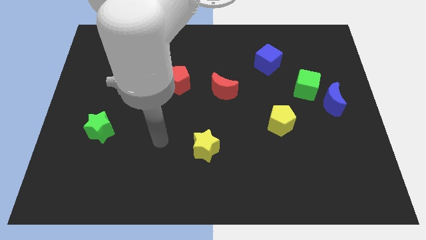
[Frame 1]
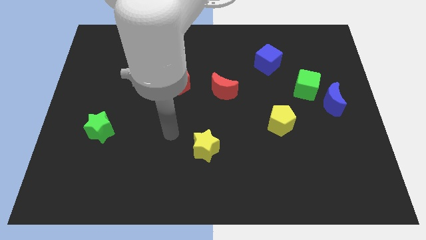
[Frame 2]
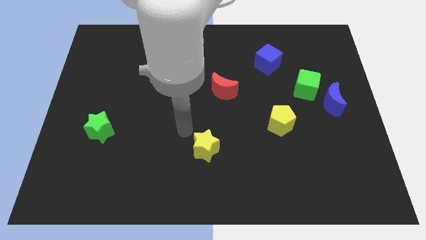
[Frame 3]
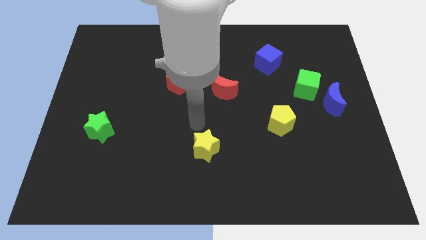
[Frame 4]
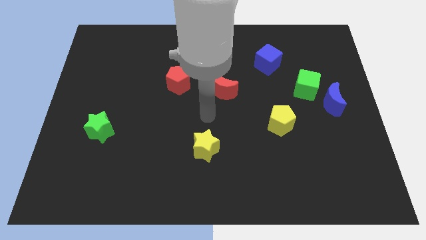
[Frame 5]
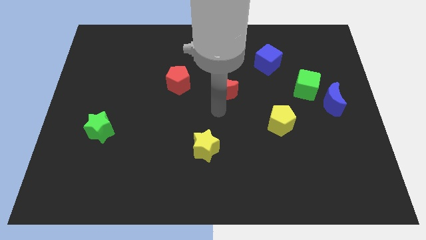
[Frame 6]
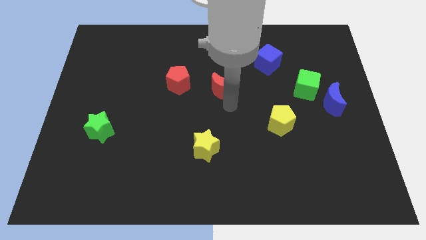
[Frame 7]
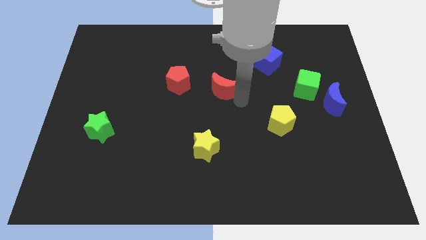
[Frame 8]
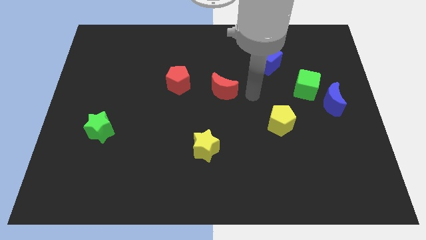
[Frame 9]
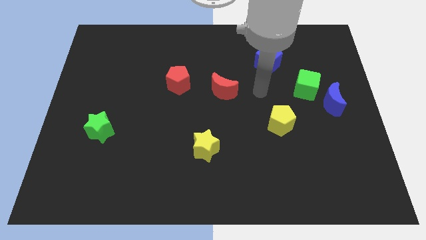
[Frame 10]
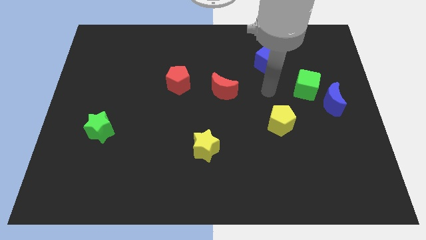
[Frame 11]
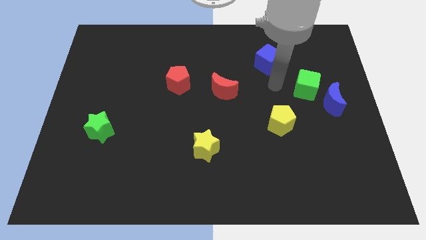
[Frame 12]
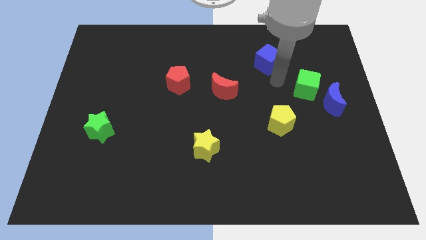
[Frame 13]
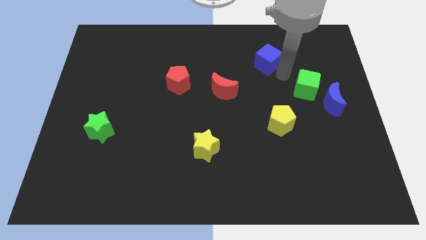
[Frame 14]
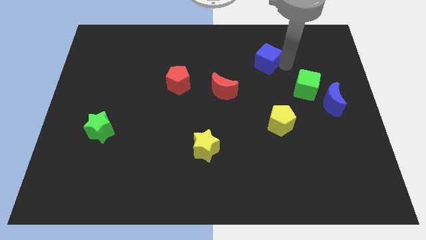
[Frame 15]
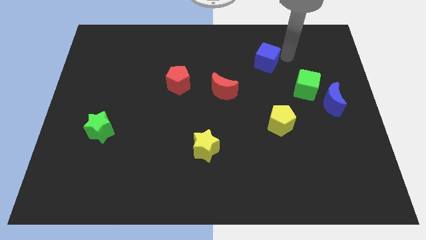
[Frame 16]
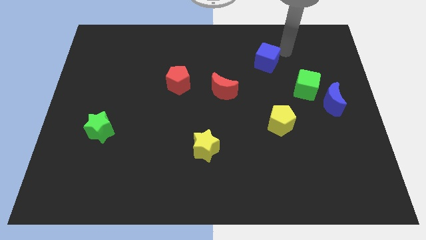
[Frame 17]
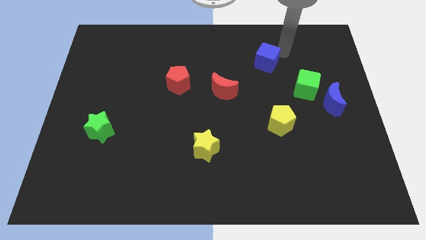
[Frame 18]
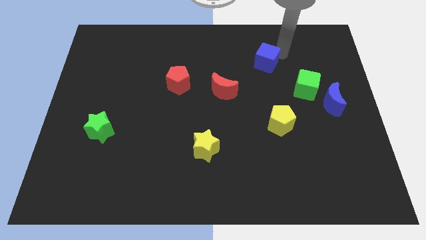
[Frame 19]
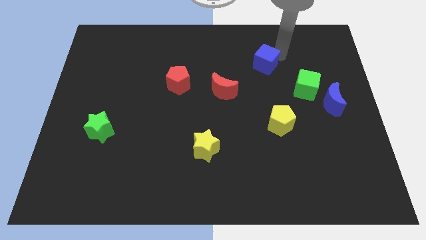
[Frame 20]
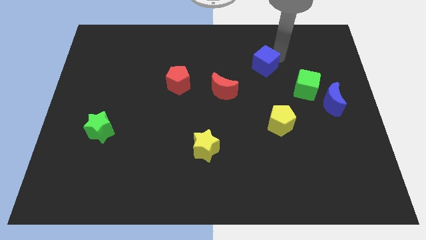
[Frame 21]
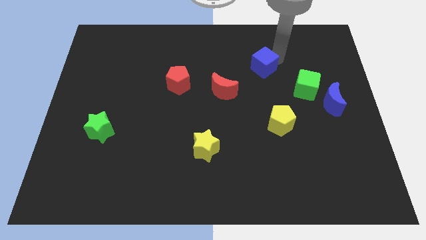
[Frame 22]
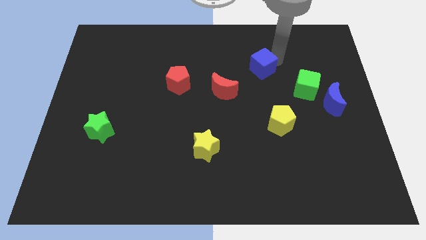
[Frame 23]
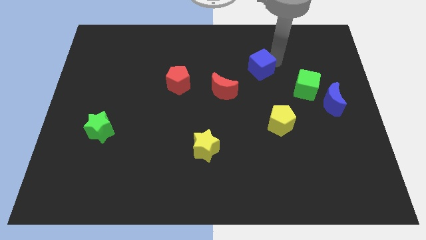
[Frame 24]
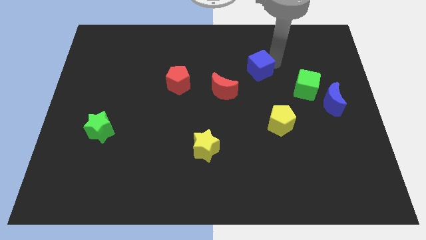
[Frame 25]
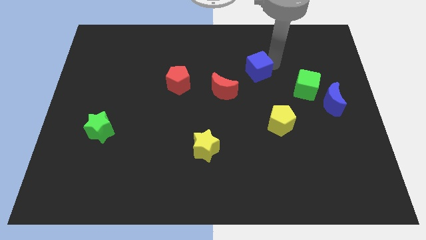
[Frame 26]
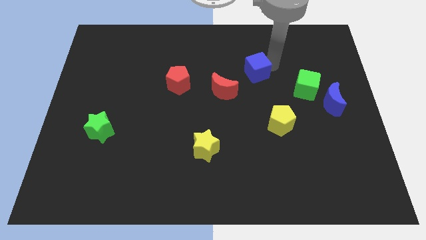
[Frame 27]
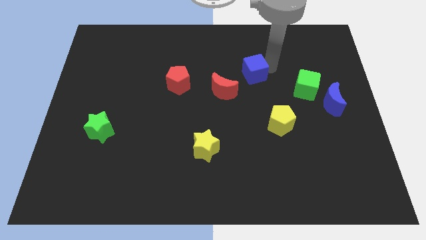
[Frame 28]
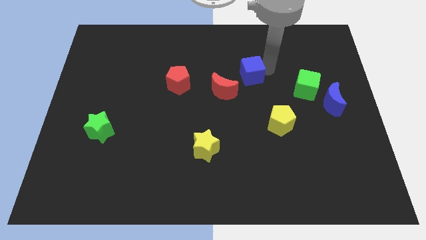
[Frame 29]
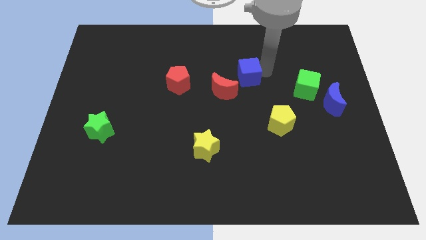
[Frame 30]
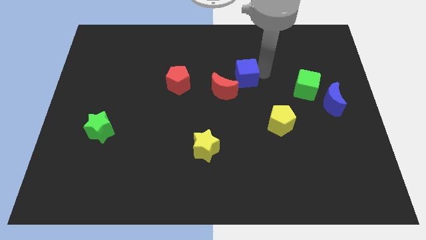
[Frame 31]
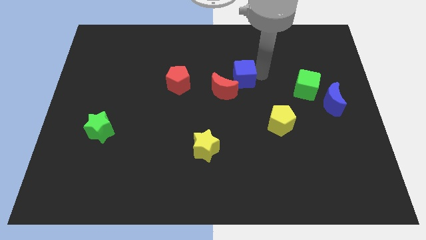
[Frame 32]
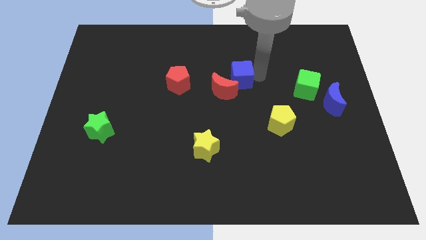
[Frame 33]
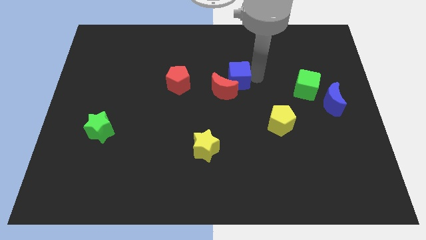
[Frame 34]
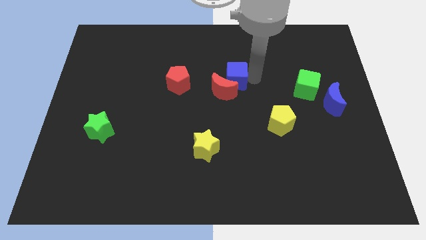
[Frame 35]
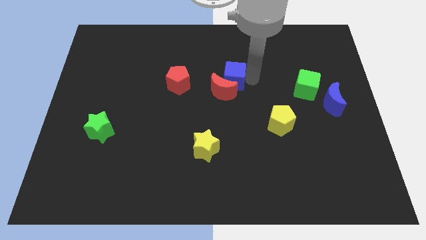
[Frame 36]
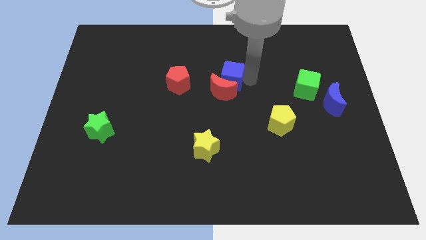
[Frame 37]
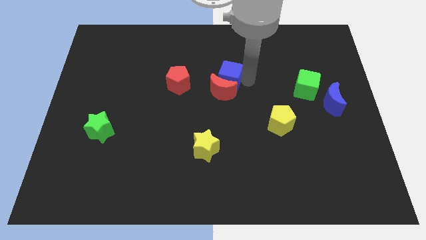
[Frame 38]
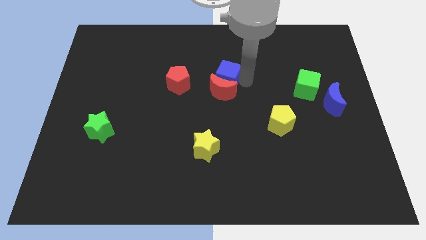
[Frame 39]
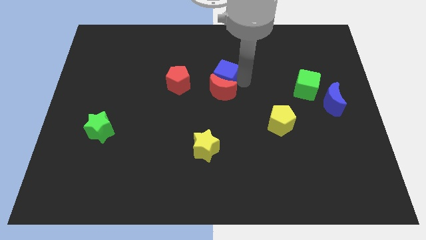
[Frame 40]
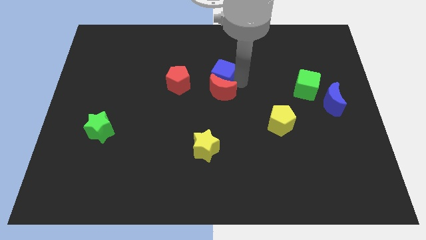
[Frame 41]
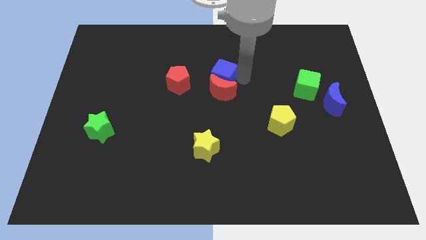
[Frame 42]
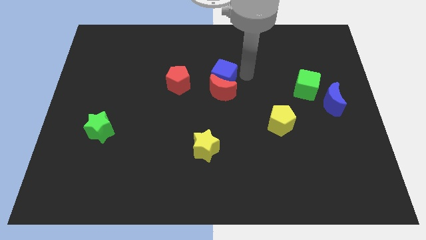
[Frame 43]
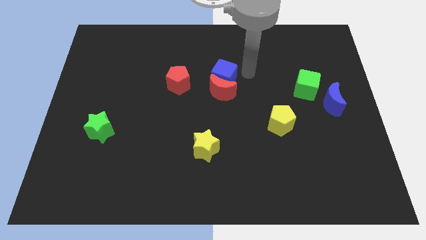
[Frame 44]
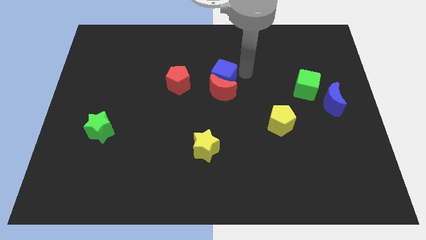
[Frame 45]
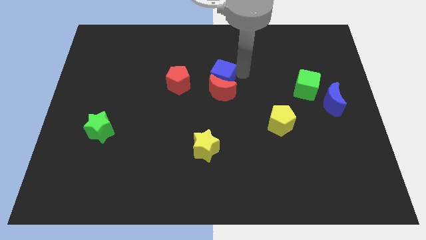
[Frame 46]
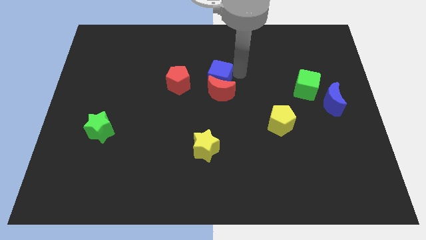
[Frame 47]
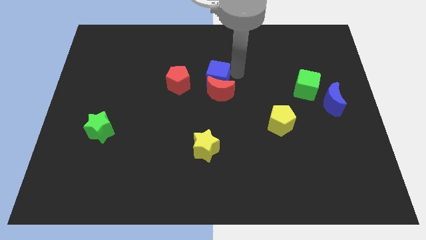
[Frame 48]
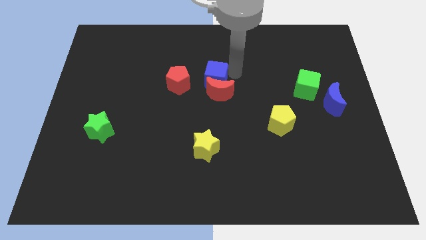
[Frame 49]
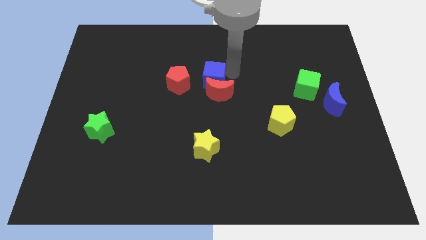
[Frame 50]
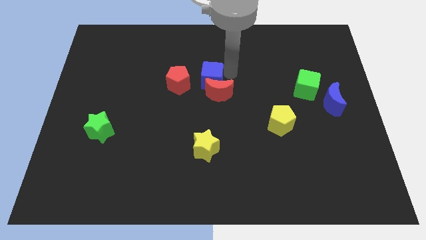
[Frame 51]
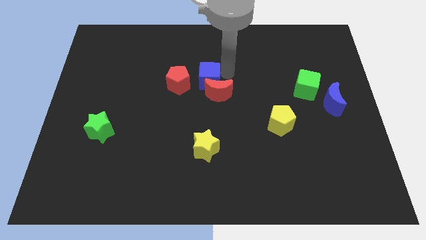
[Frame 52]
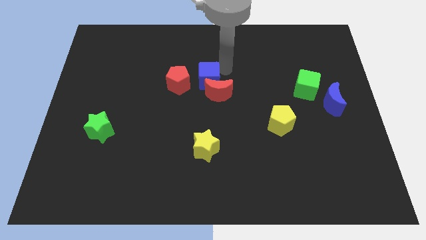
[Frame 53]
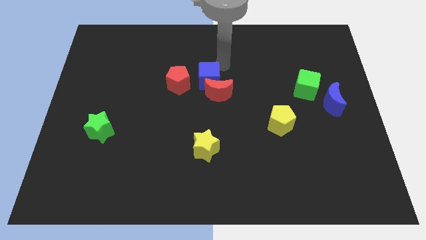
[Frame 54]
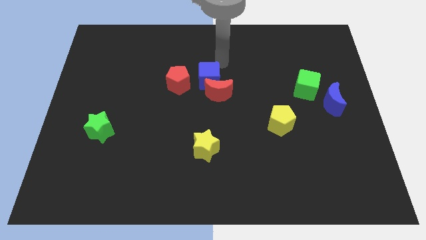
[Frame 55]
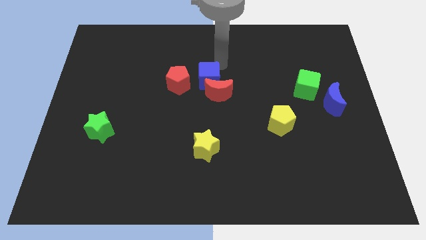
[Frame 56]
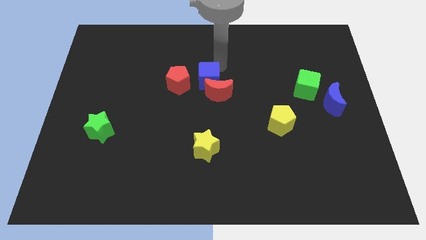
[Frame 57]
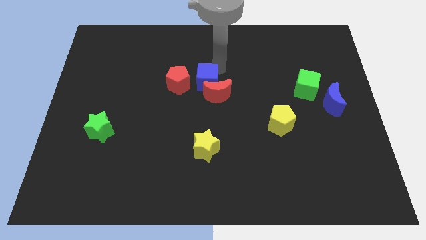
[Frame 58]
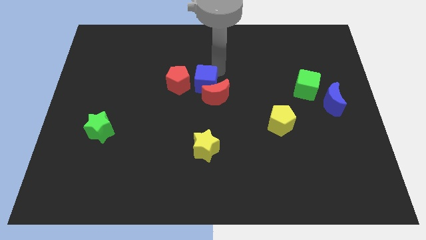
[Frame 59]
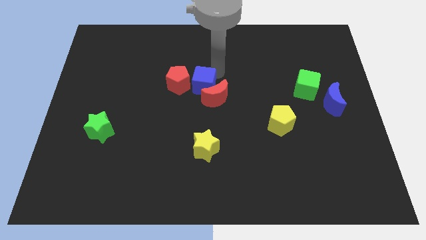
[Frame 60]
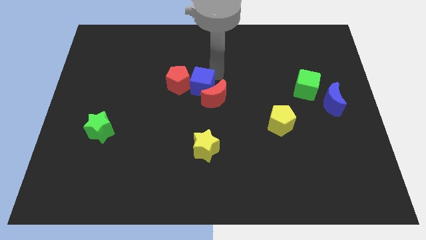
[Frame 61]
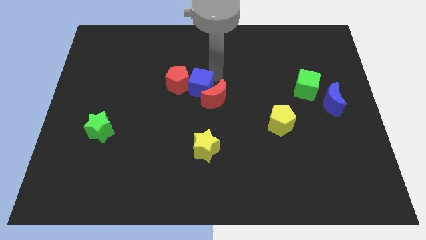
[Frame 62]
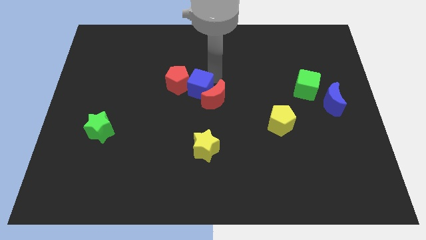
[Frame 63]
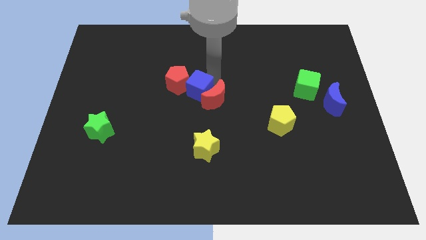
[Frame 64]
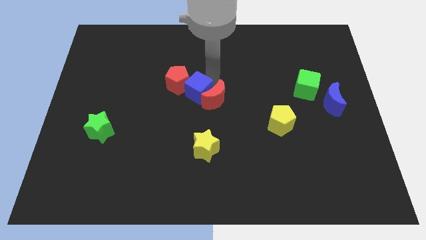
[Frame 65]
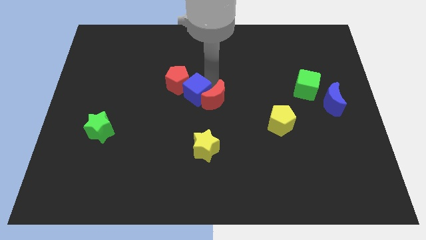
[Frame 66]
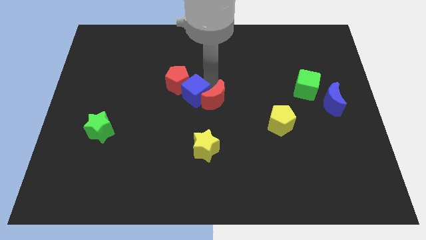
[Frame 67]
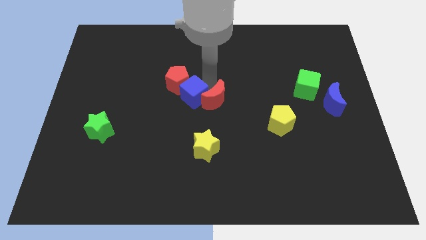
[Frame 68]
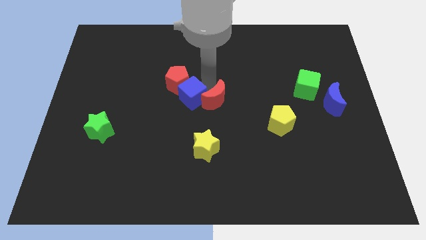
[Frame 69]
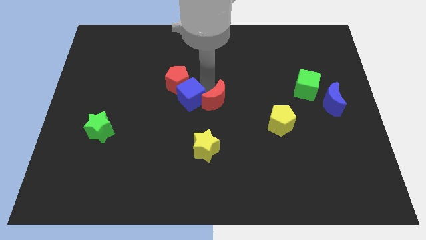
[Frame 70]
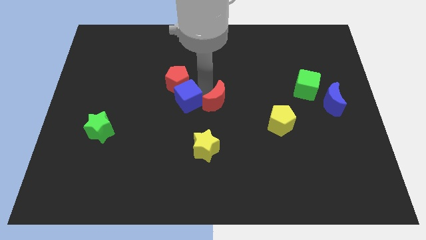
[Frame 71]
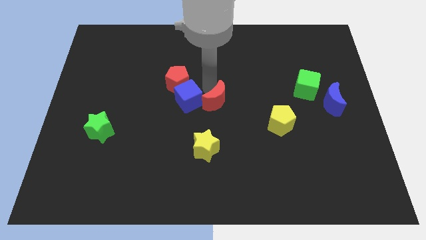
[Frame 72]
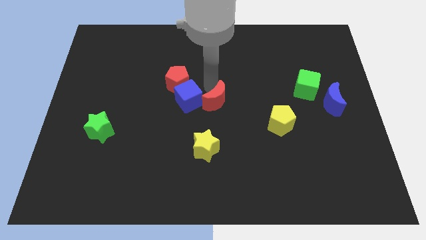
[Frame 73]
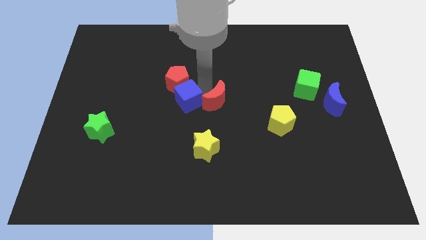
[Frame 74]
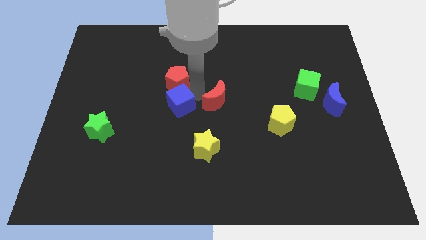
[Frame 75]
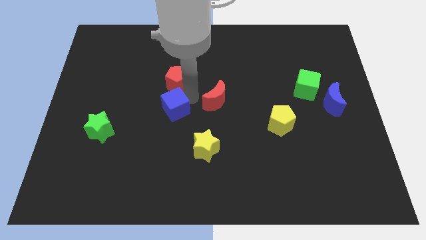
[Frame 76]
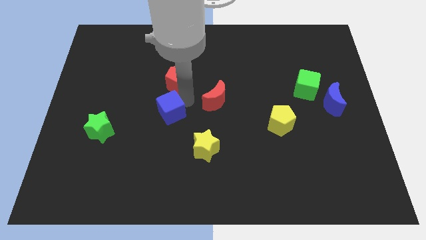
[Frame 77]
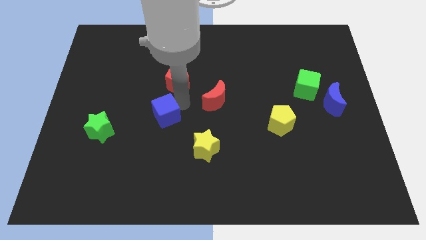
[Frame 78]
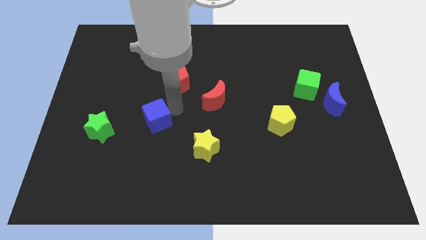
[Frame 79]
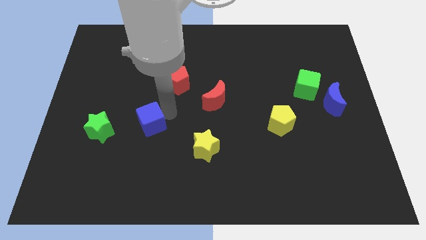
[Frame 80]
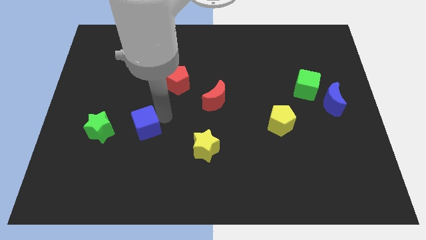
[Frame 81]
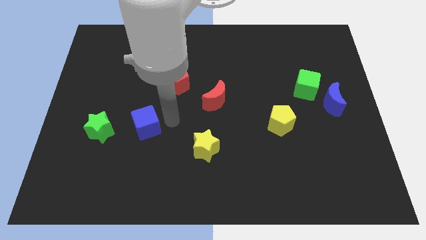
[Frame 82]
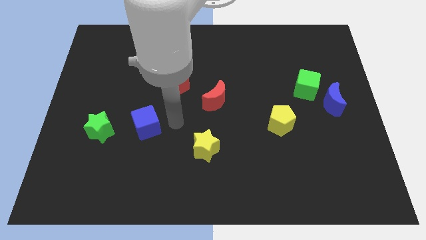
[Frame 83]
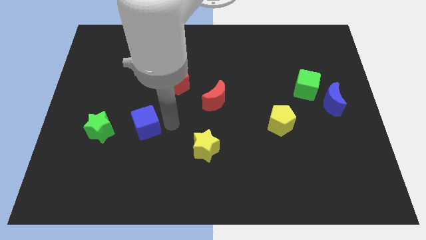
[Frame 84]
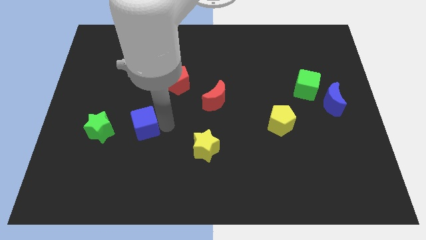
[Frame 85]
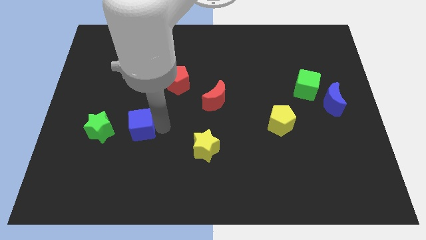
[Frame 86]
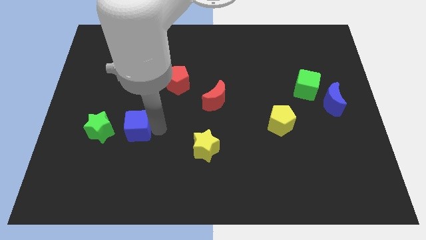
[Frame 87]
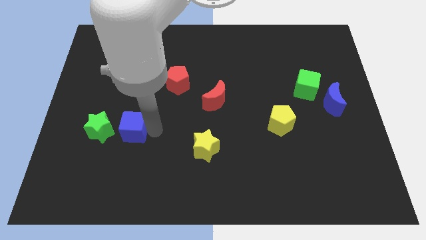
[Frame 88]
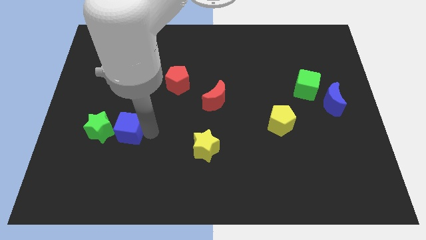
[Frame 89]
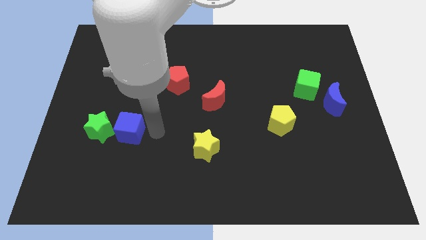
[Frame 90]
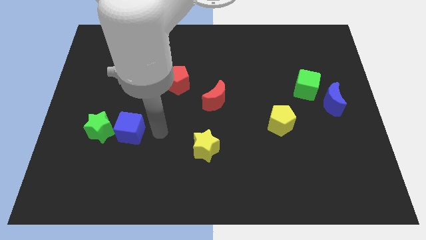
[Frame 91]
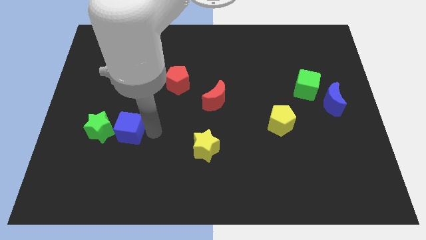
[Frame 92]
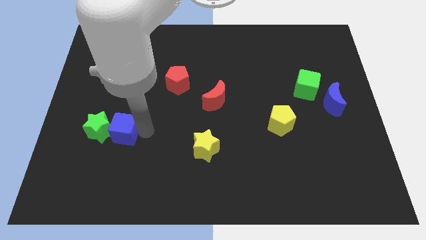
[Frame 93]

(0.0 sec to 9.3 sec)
slide the blue cube next to the green star
